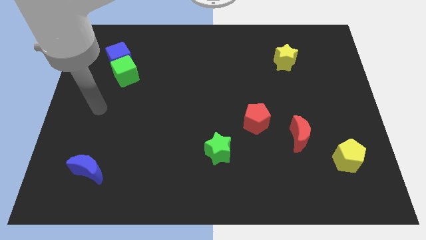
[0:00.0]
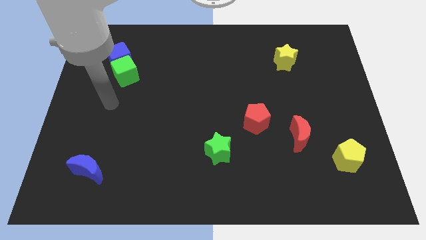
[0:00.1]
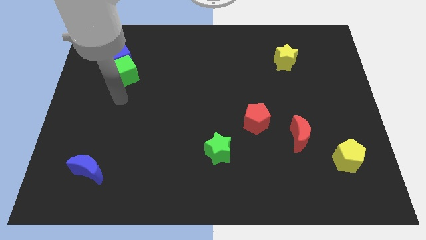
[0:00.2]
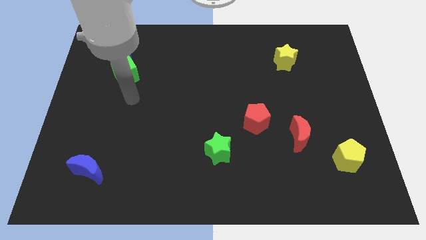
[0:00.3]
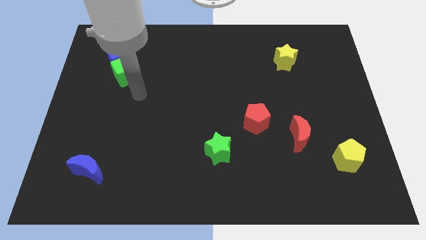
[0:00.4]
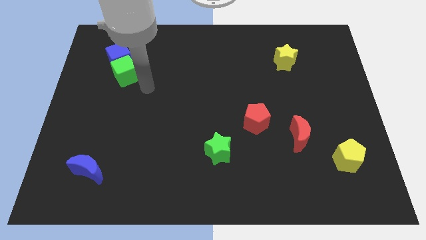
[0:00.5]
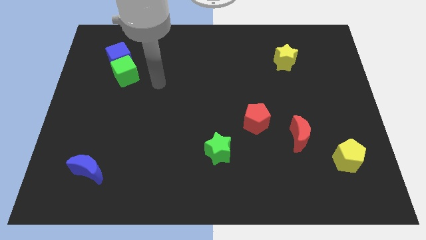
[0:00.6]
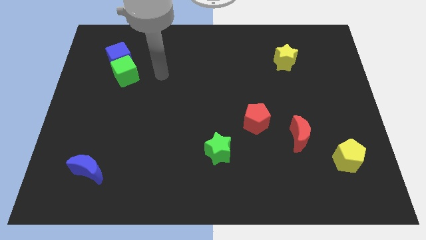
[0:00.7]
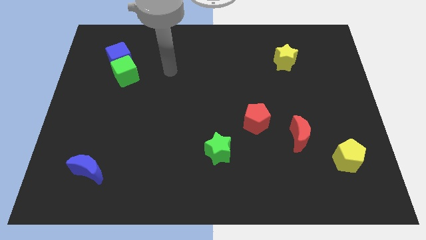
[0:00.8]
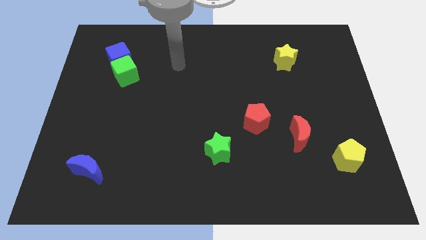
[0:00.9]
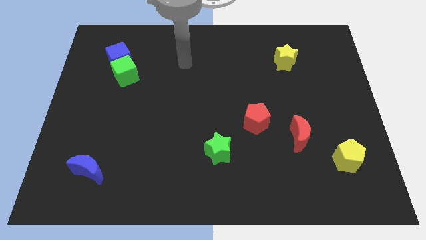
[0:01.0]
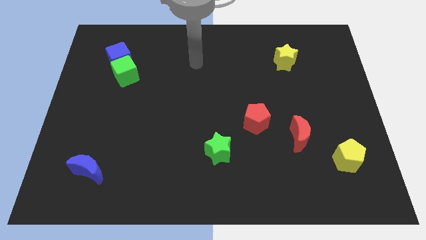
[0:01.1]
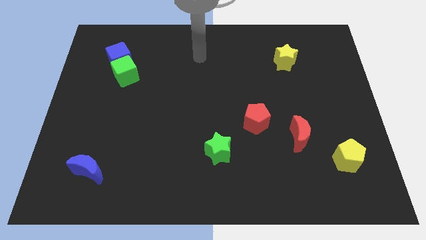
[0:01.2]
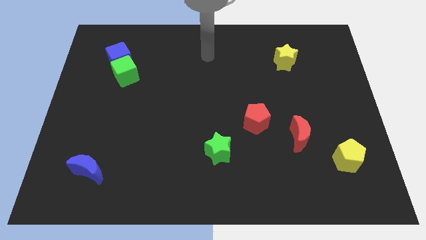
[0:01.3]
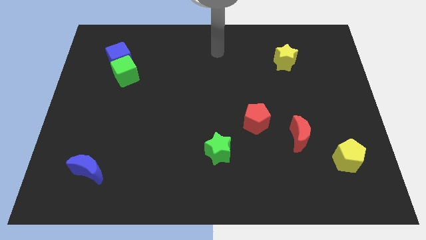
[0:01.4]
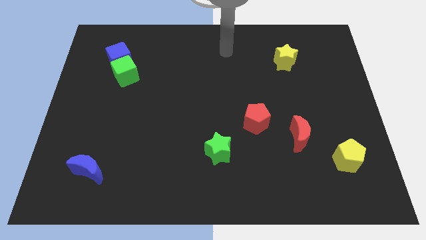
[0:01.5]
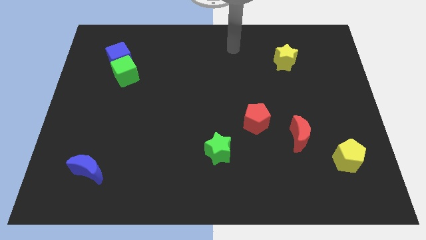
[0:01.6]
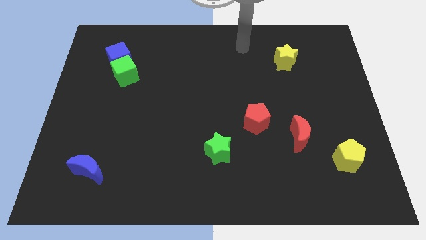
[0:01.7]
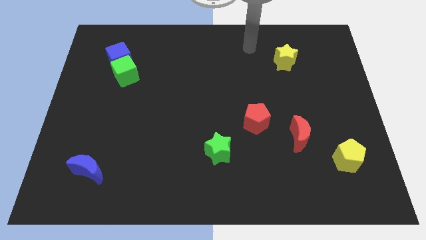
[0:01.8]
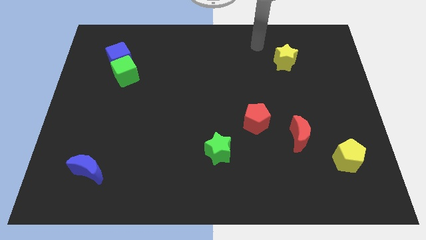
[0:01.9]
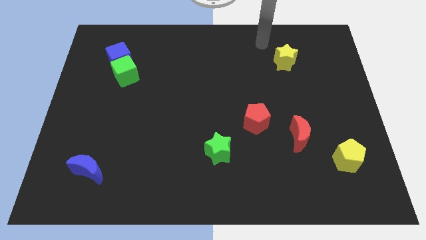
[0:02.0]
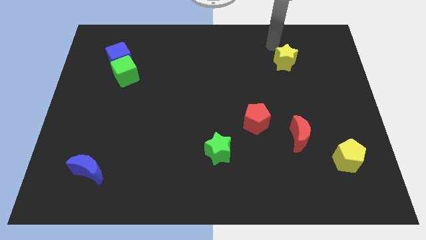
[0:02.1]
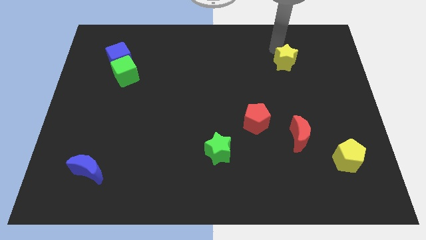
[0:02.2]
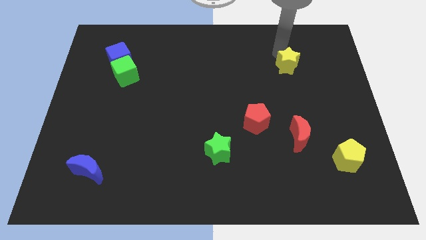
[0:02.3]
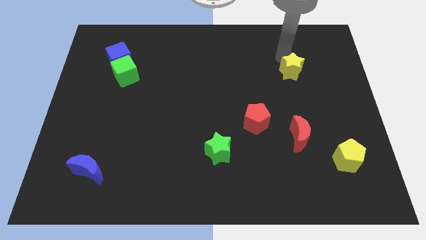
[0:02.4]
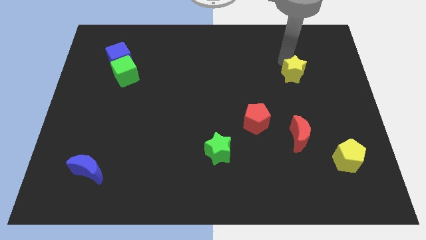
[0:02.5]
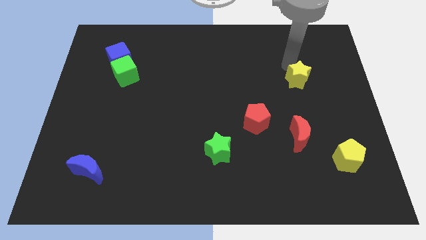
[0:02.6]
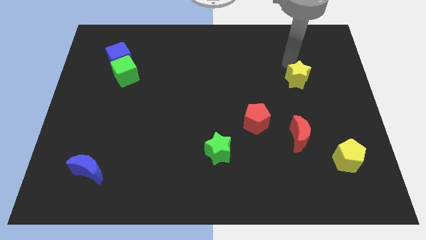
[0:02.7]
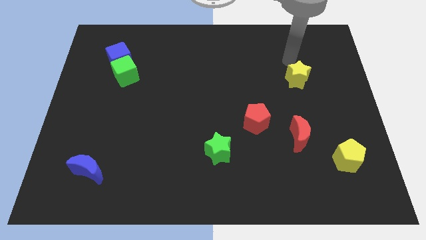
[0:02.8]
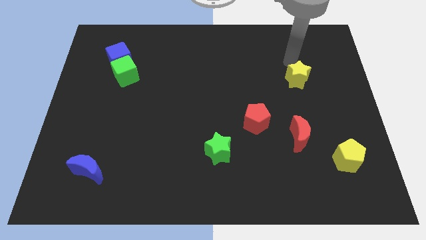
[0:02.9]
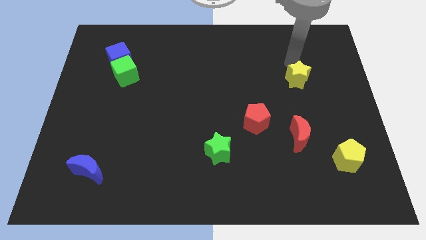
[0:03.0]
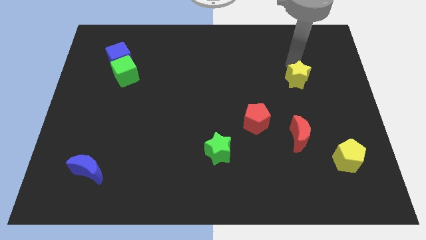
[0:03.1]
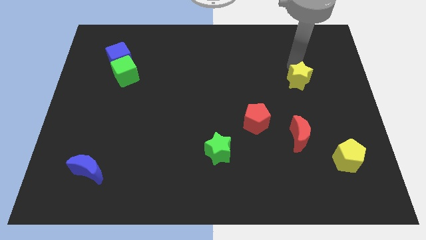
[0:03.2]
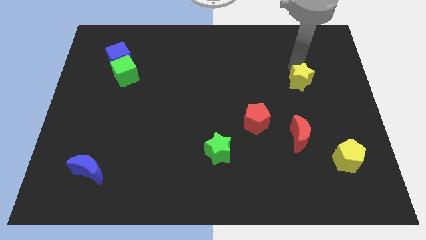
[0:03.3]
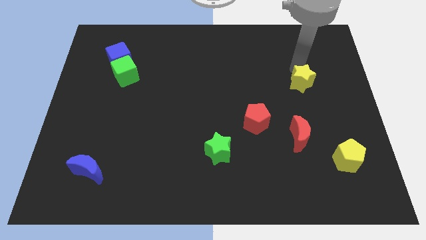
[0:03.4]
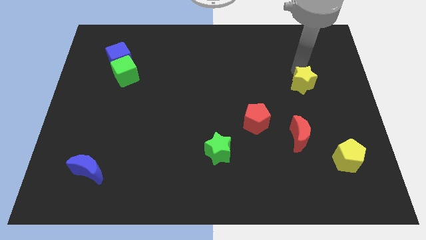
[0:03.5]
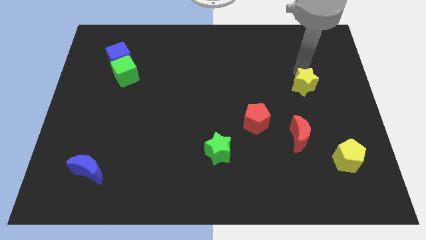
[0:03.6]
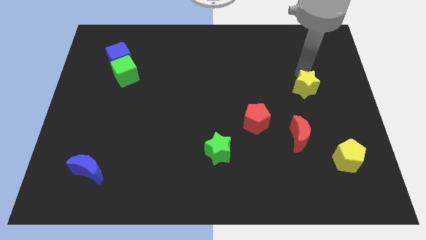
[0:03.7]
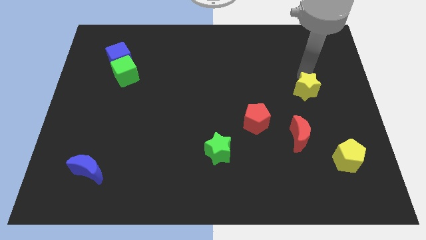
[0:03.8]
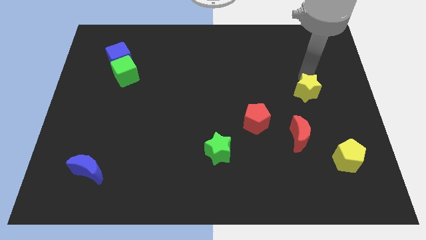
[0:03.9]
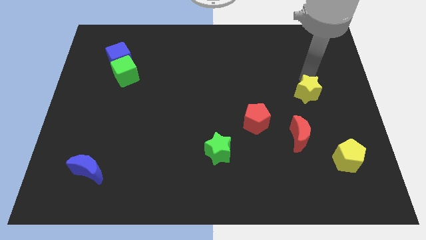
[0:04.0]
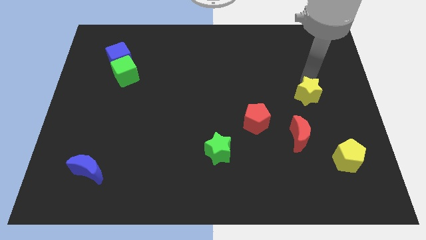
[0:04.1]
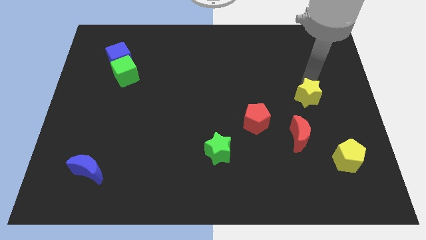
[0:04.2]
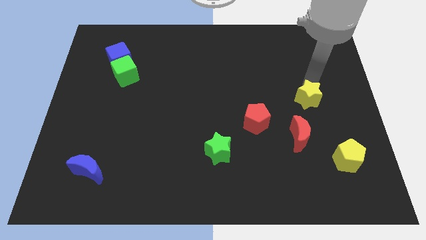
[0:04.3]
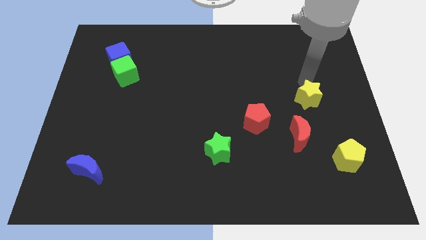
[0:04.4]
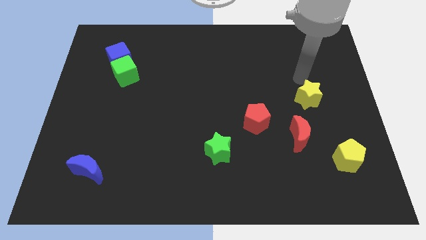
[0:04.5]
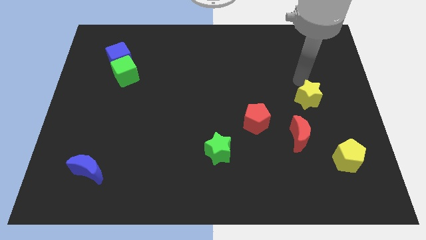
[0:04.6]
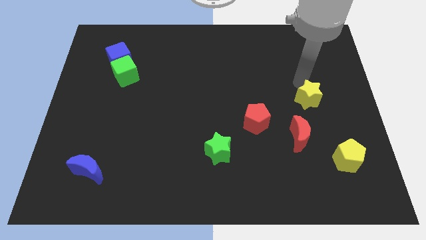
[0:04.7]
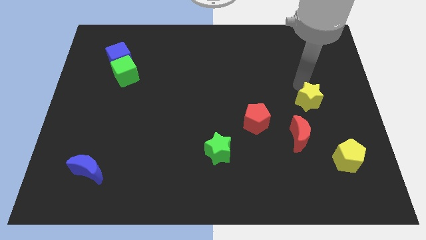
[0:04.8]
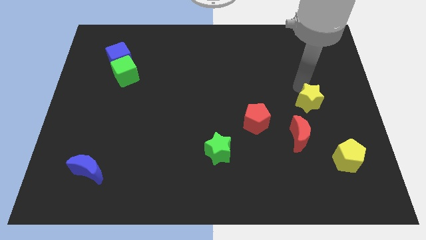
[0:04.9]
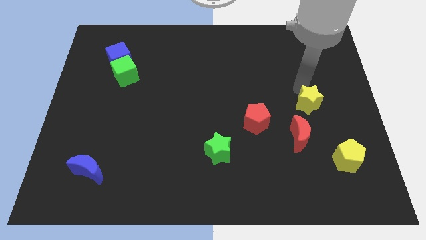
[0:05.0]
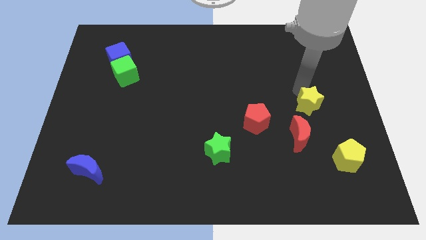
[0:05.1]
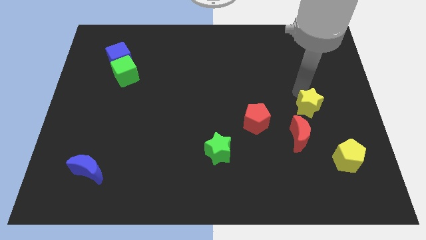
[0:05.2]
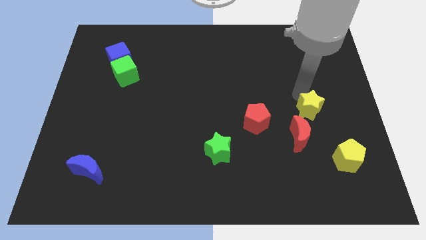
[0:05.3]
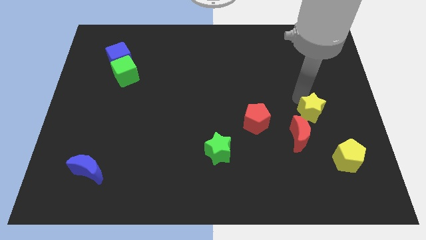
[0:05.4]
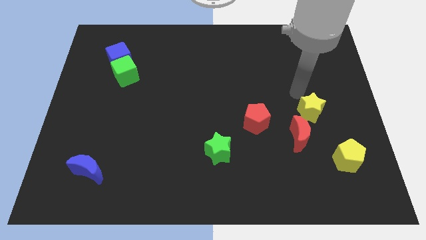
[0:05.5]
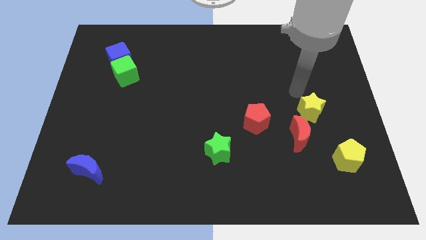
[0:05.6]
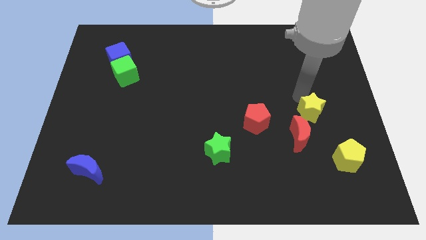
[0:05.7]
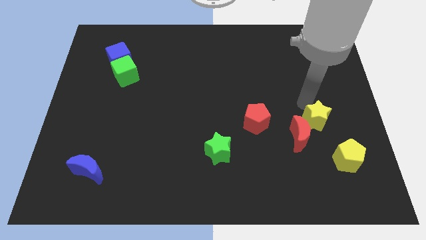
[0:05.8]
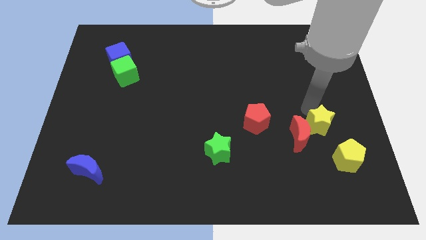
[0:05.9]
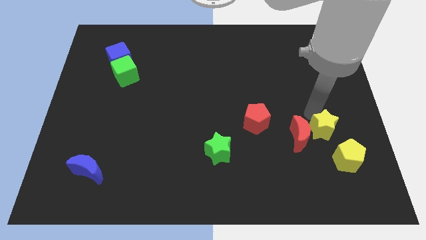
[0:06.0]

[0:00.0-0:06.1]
push the yellow star down

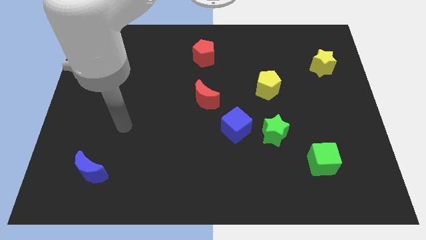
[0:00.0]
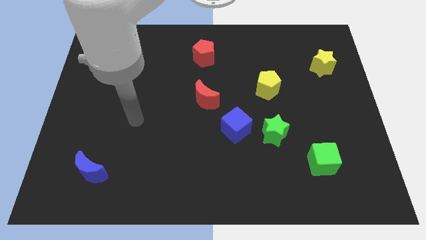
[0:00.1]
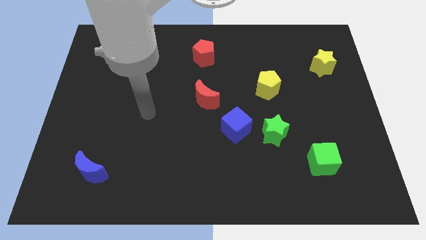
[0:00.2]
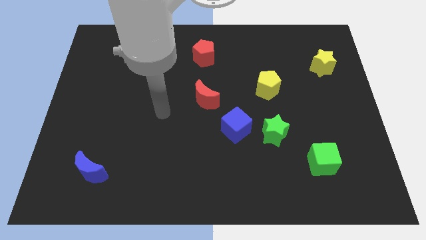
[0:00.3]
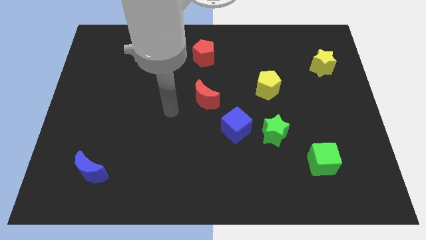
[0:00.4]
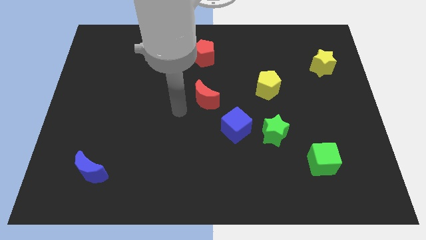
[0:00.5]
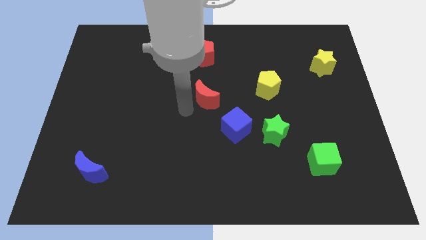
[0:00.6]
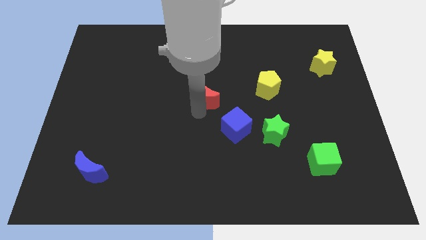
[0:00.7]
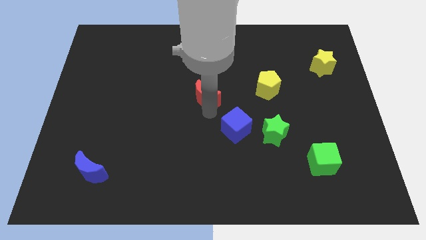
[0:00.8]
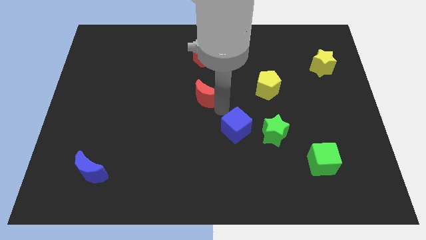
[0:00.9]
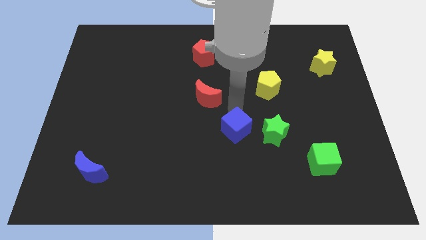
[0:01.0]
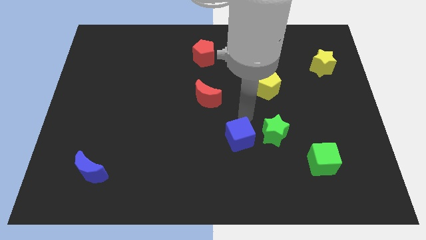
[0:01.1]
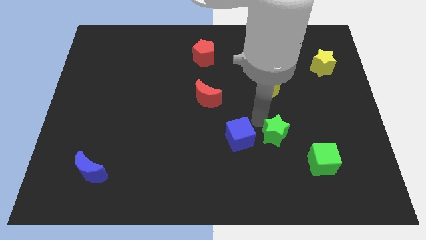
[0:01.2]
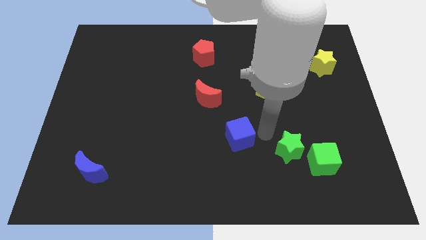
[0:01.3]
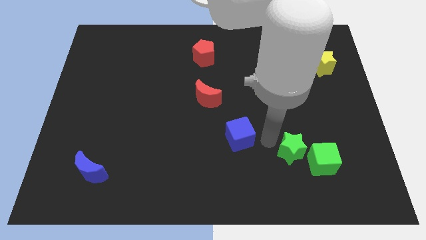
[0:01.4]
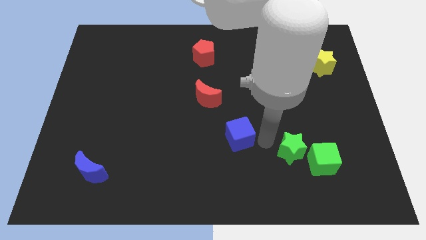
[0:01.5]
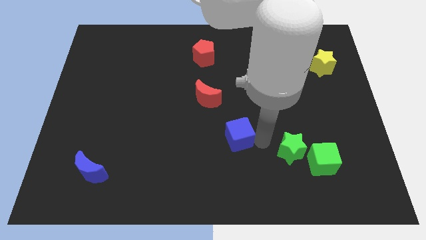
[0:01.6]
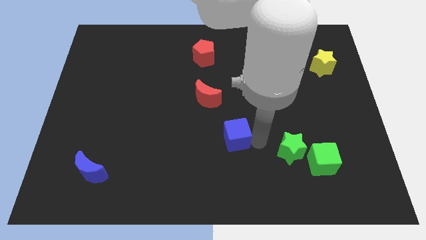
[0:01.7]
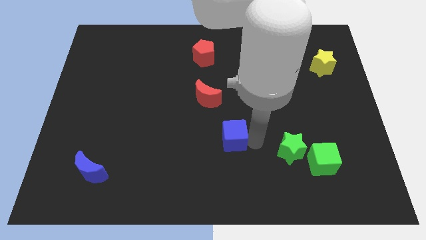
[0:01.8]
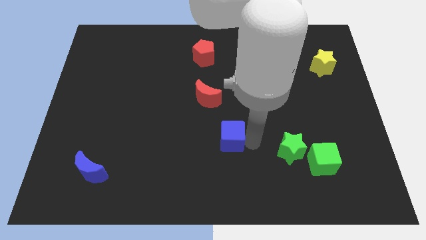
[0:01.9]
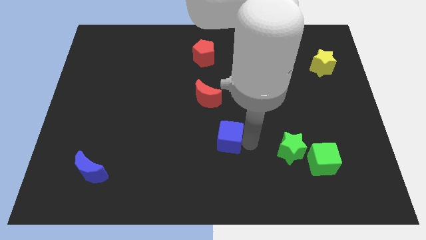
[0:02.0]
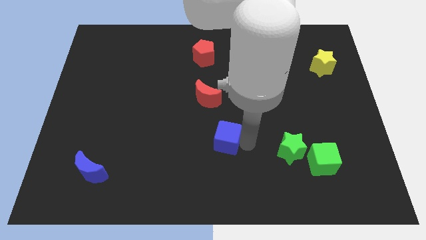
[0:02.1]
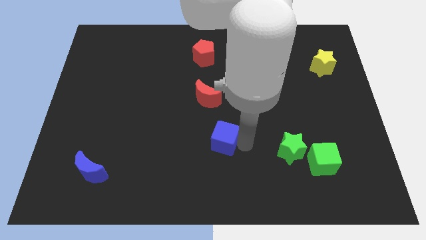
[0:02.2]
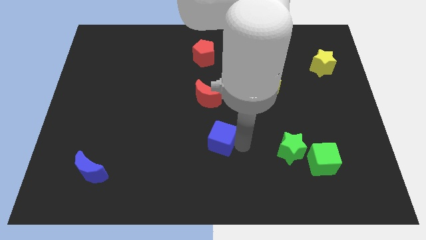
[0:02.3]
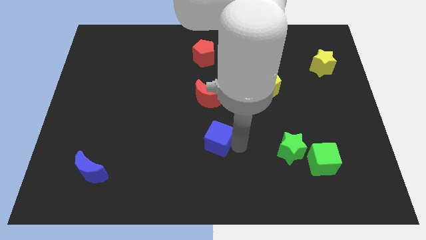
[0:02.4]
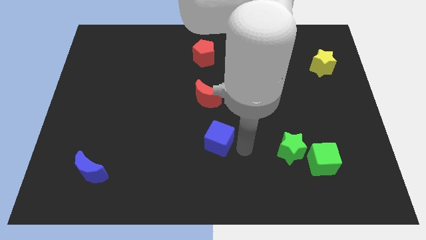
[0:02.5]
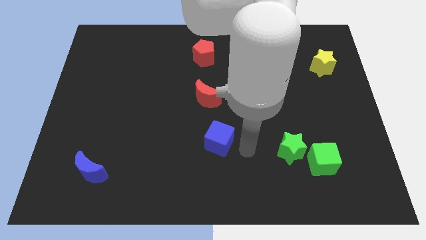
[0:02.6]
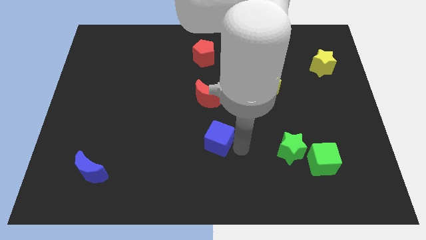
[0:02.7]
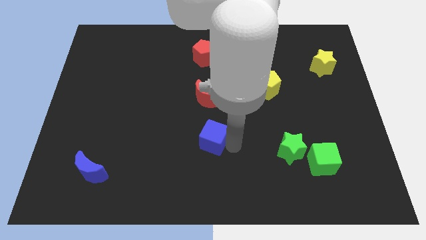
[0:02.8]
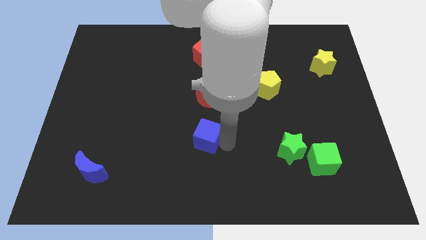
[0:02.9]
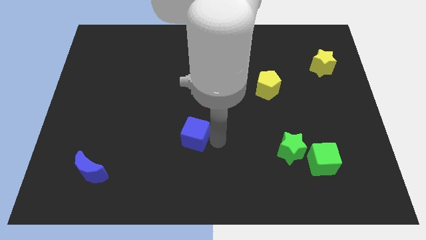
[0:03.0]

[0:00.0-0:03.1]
push the blue cube somewhat left
